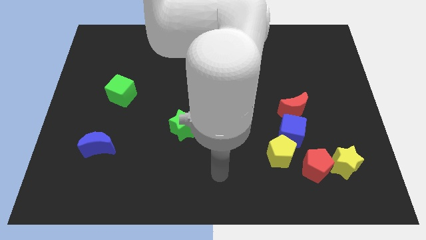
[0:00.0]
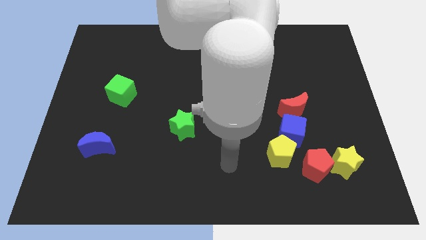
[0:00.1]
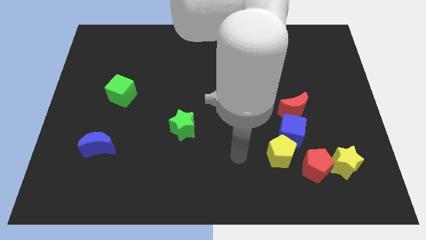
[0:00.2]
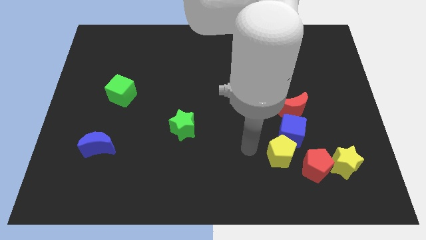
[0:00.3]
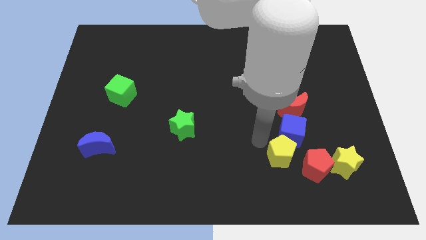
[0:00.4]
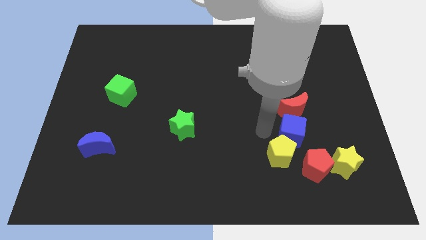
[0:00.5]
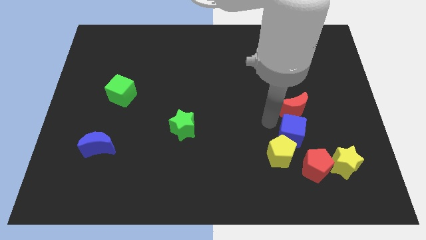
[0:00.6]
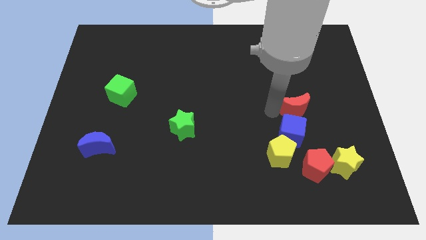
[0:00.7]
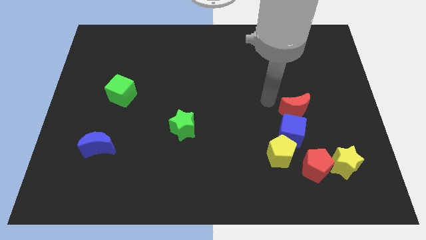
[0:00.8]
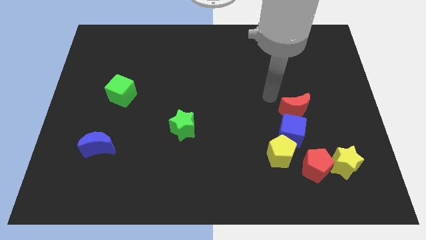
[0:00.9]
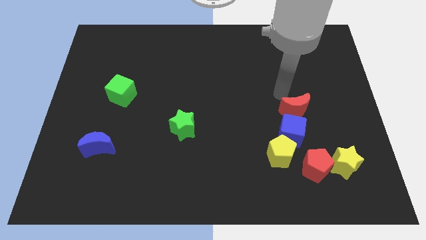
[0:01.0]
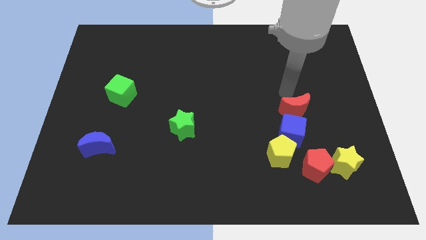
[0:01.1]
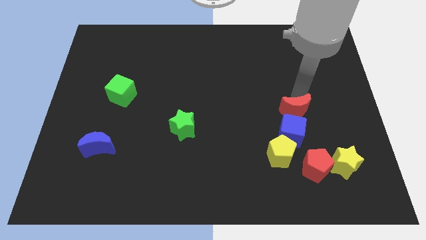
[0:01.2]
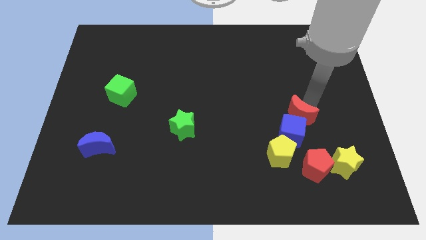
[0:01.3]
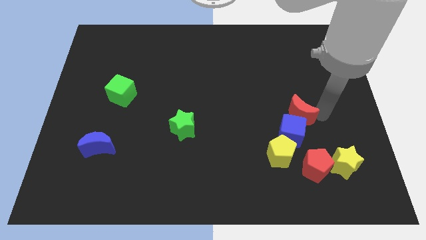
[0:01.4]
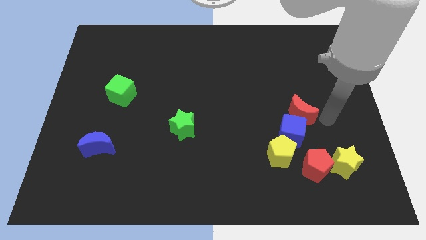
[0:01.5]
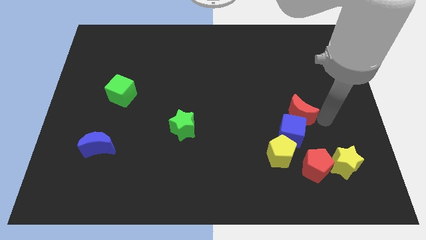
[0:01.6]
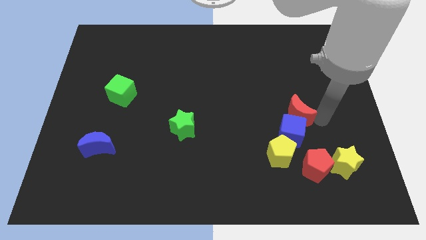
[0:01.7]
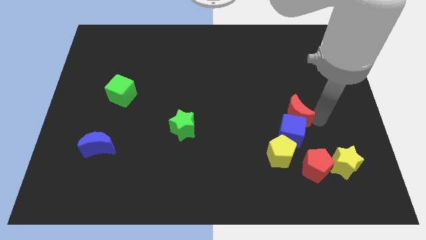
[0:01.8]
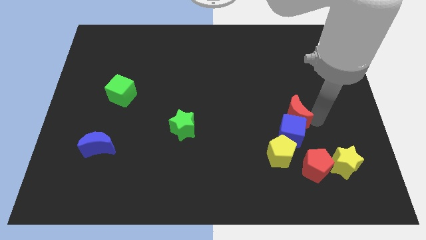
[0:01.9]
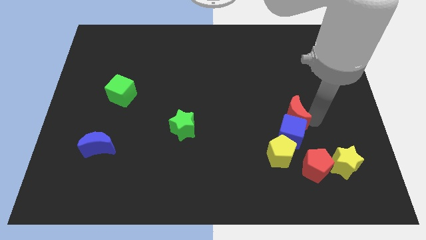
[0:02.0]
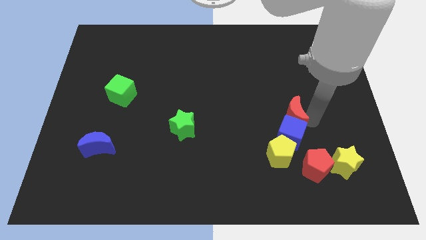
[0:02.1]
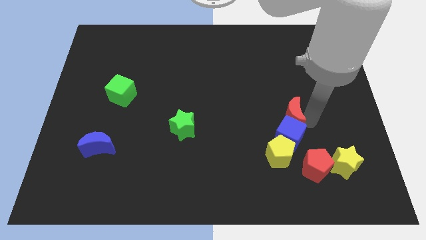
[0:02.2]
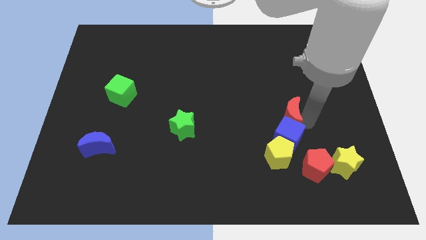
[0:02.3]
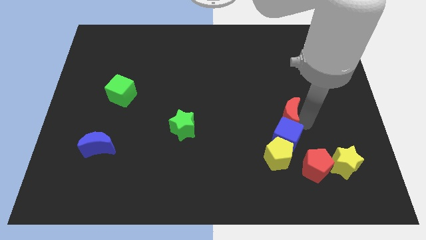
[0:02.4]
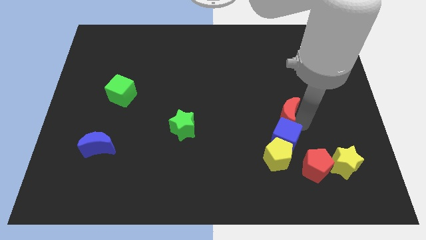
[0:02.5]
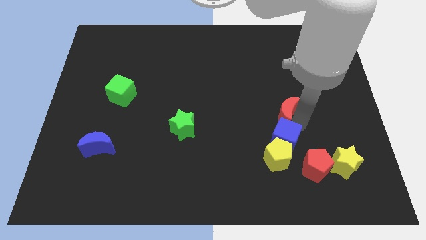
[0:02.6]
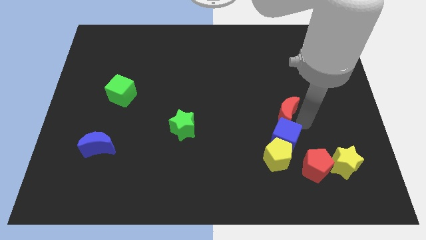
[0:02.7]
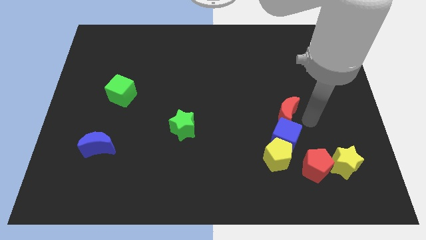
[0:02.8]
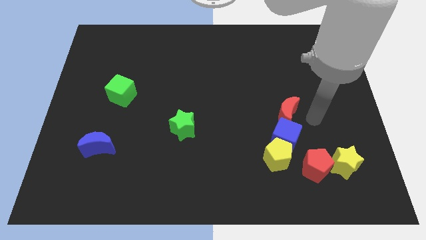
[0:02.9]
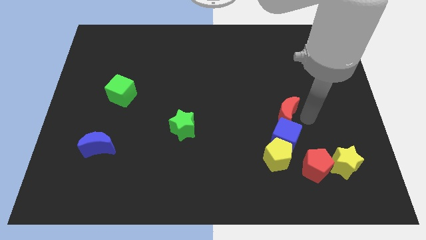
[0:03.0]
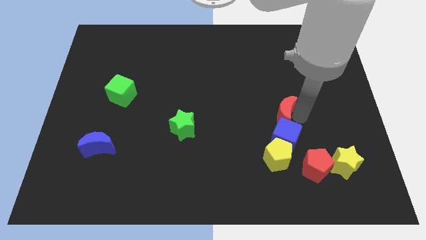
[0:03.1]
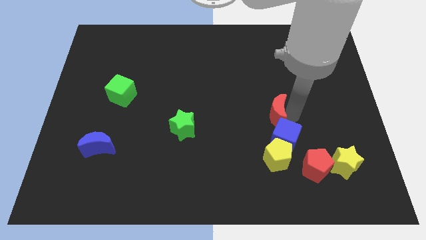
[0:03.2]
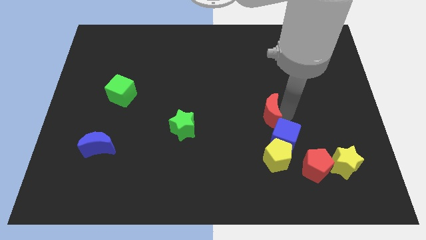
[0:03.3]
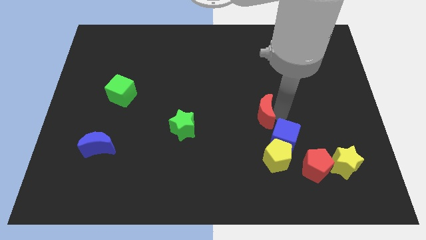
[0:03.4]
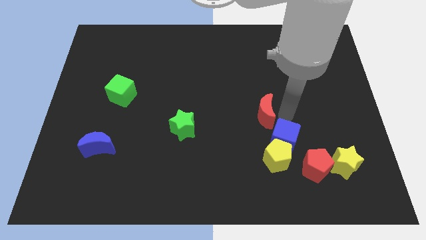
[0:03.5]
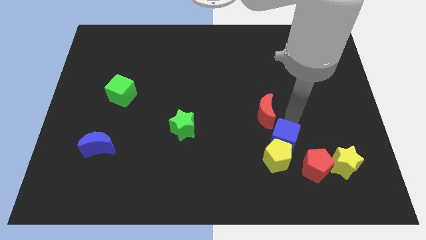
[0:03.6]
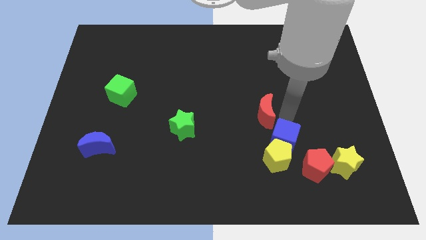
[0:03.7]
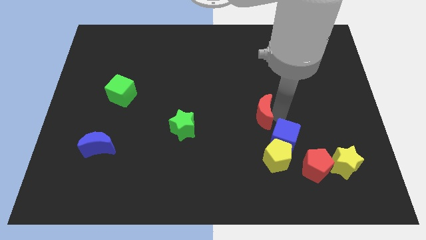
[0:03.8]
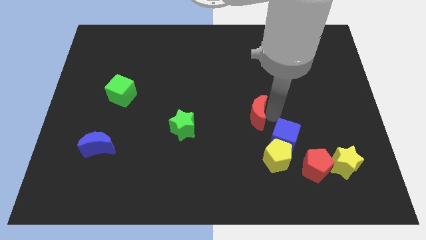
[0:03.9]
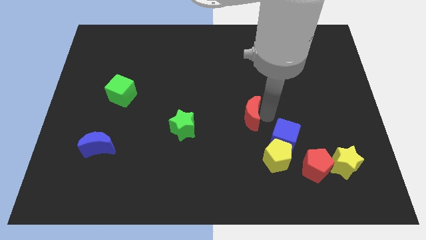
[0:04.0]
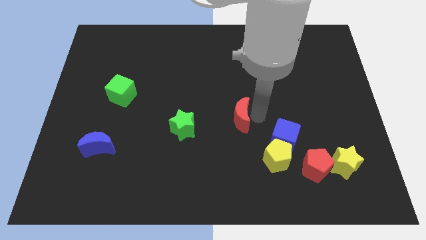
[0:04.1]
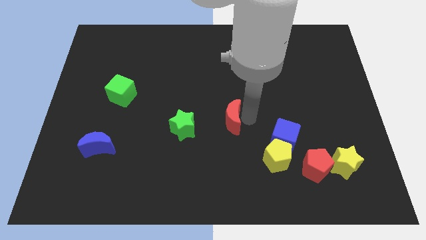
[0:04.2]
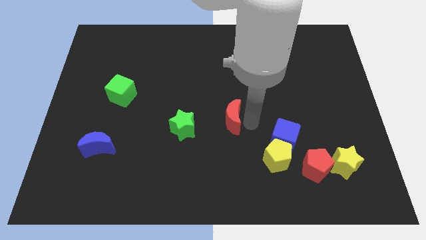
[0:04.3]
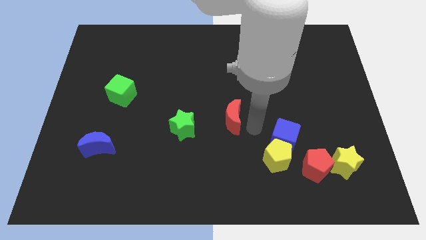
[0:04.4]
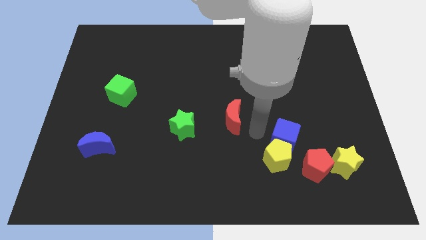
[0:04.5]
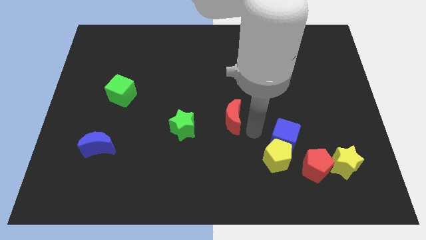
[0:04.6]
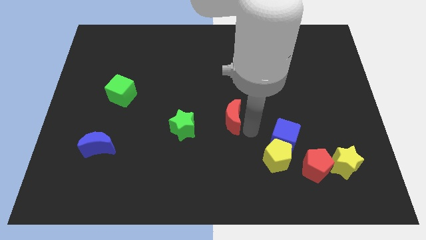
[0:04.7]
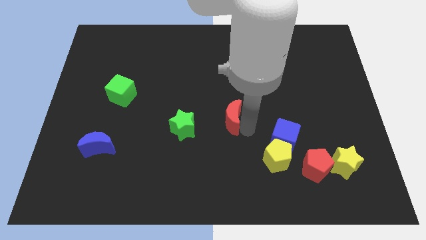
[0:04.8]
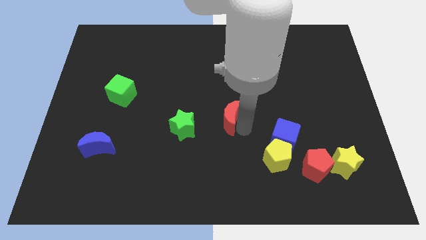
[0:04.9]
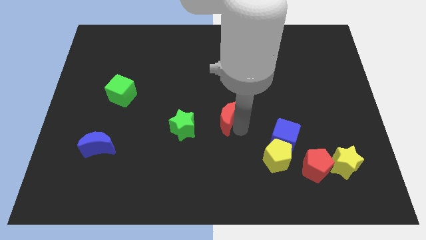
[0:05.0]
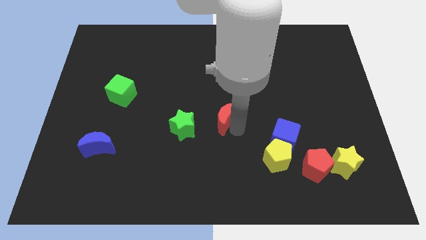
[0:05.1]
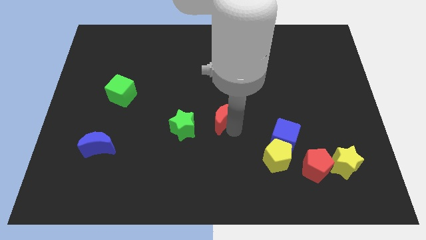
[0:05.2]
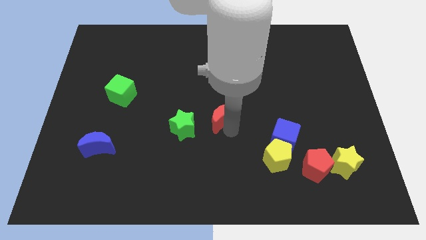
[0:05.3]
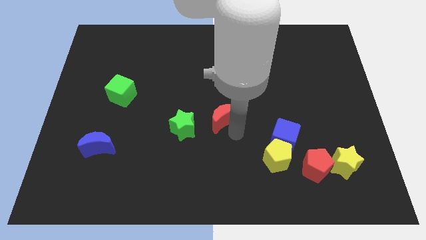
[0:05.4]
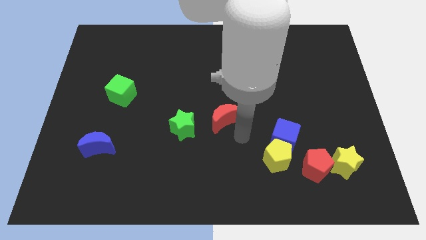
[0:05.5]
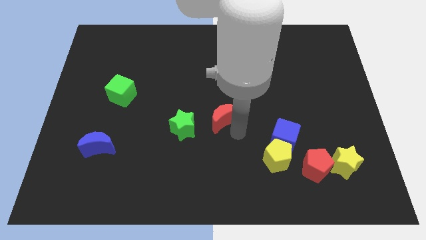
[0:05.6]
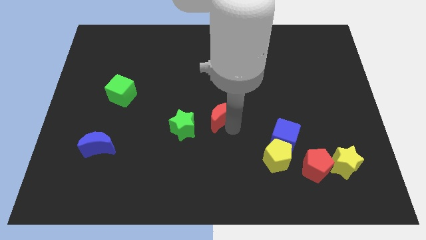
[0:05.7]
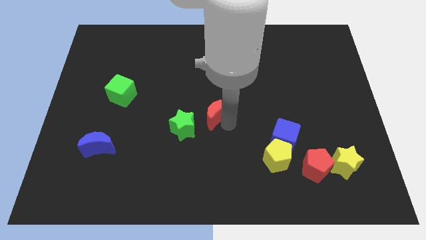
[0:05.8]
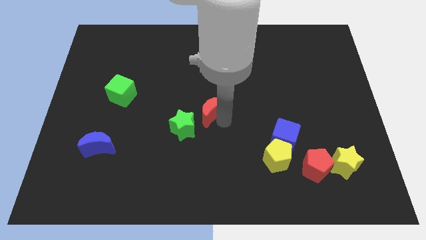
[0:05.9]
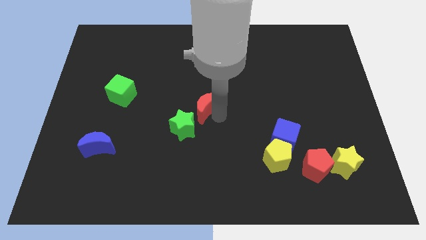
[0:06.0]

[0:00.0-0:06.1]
push the red moon to the left

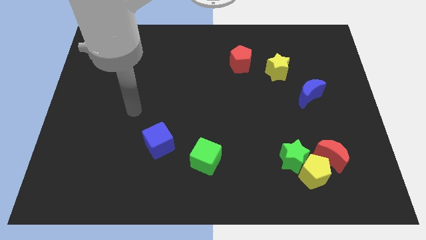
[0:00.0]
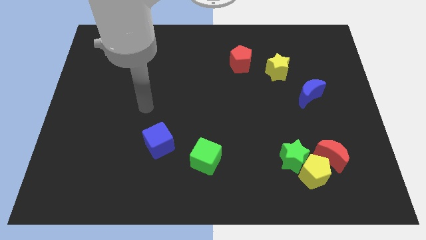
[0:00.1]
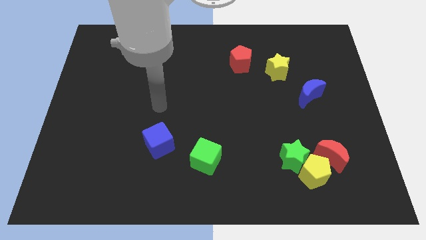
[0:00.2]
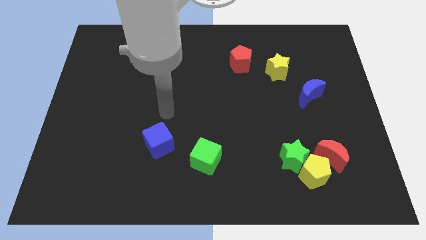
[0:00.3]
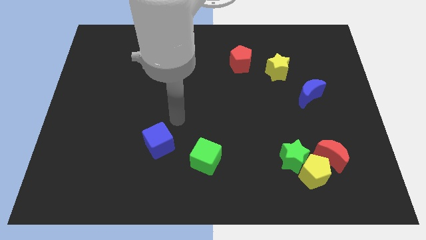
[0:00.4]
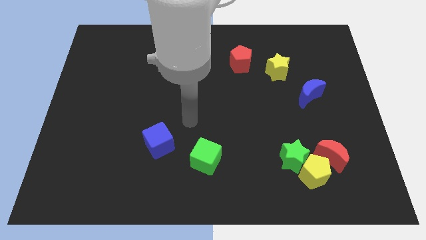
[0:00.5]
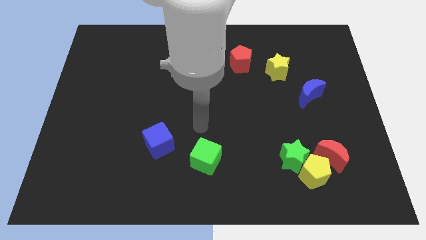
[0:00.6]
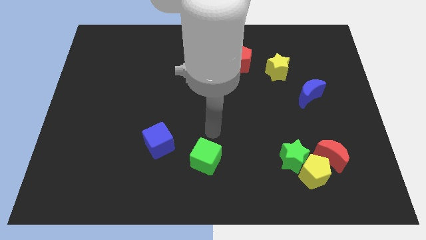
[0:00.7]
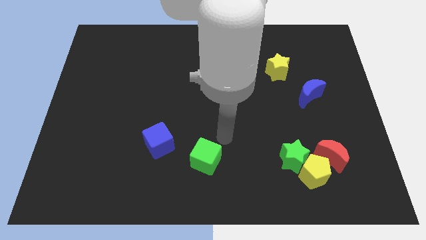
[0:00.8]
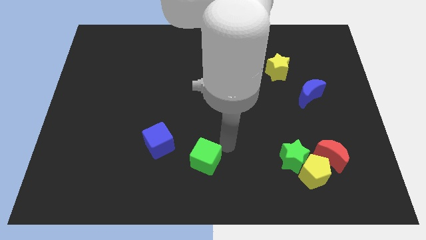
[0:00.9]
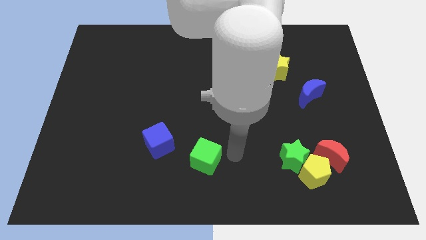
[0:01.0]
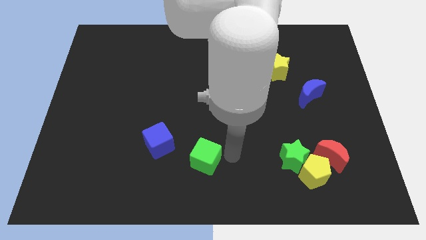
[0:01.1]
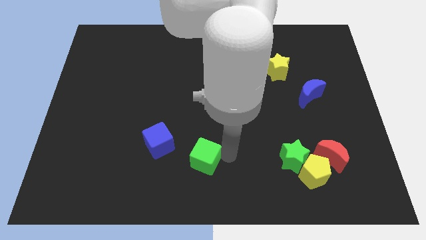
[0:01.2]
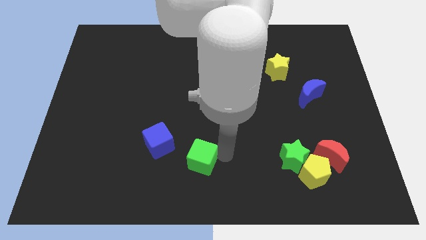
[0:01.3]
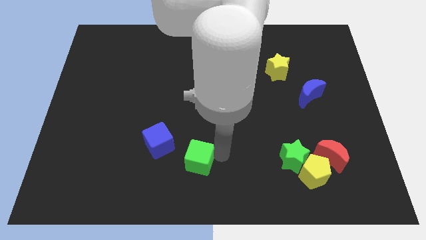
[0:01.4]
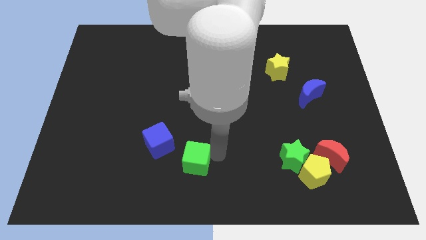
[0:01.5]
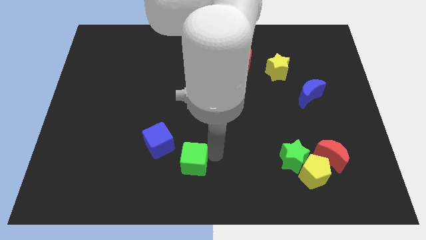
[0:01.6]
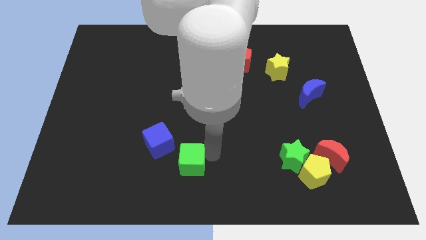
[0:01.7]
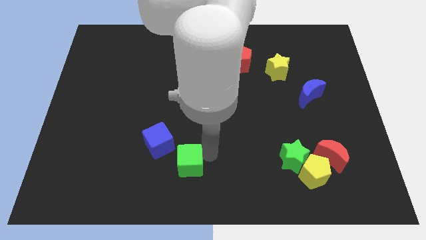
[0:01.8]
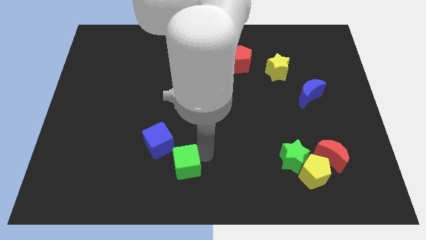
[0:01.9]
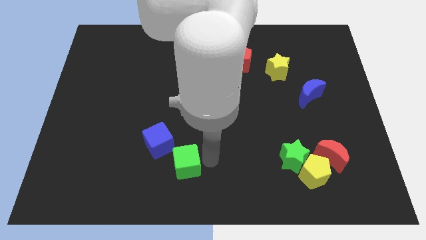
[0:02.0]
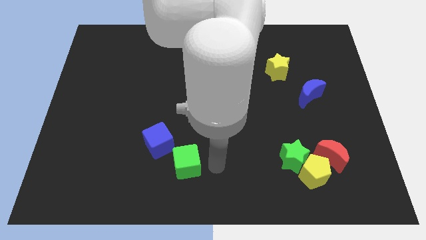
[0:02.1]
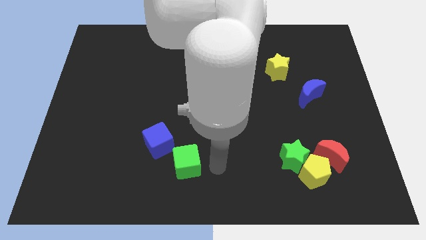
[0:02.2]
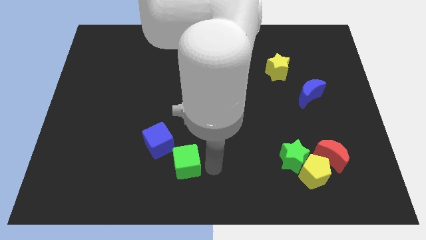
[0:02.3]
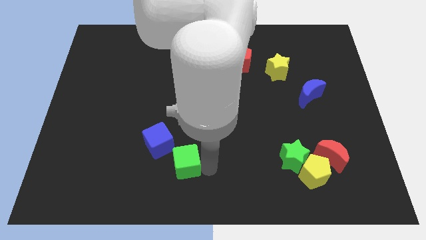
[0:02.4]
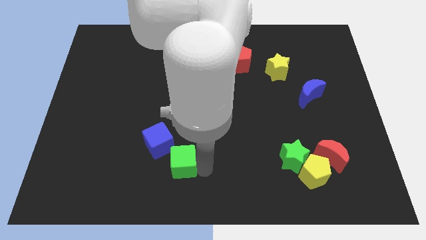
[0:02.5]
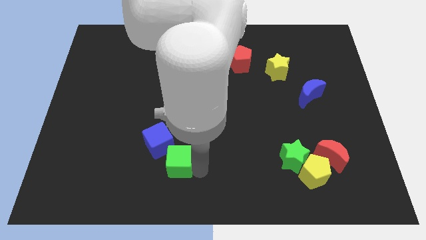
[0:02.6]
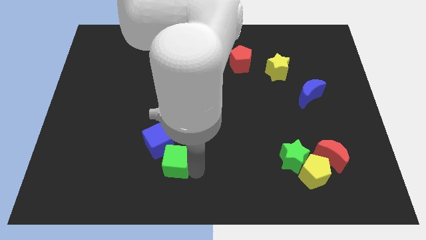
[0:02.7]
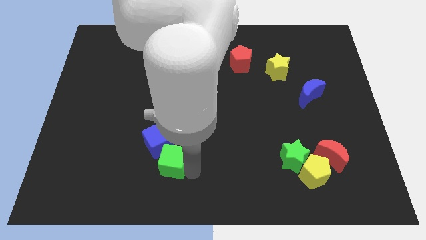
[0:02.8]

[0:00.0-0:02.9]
slightly move the green cube left
